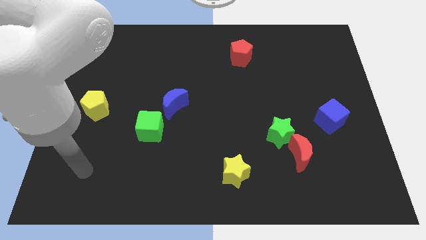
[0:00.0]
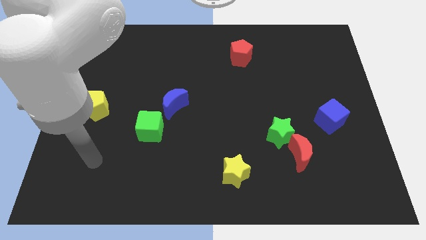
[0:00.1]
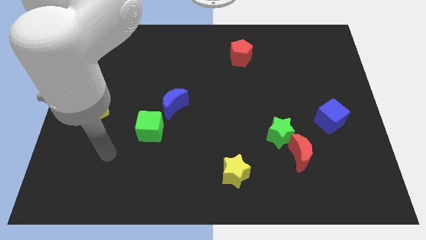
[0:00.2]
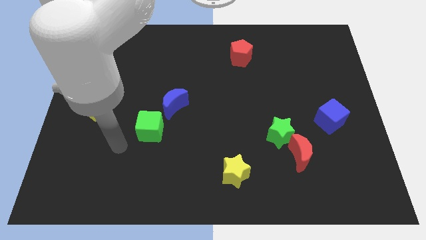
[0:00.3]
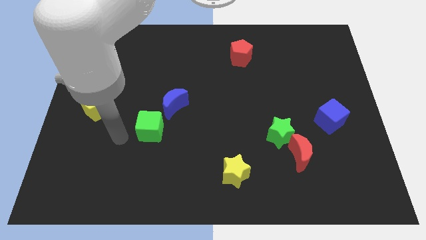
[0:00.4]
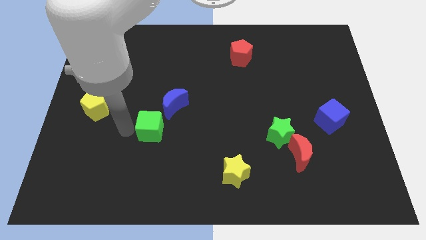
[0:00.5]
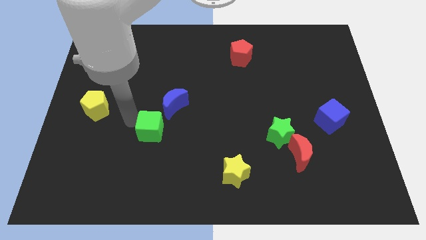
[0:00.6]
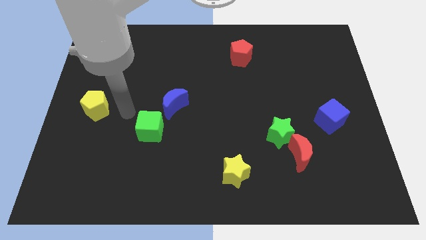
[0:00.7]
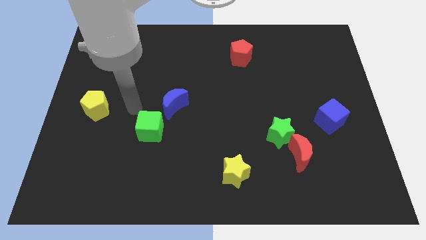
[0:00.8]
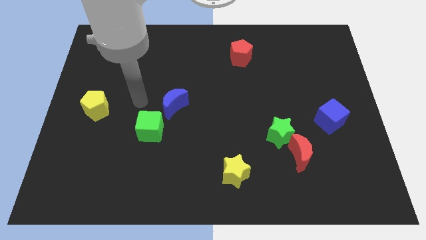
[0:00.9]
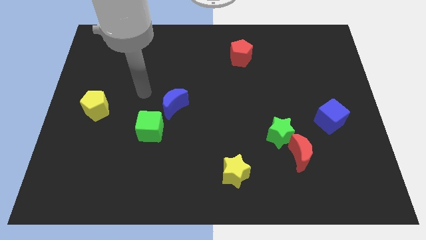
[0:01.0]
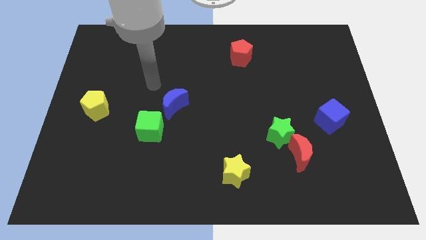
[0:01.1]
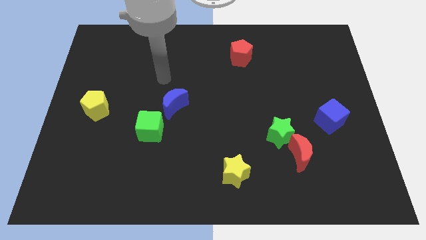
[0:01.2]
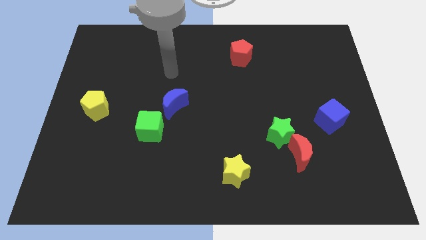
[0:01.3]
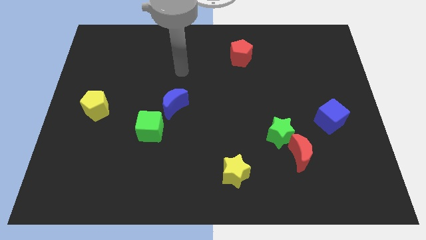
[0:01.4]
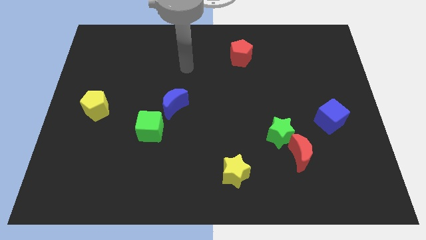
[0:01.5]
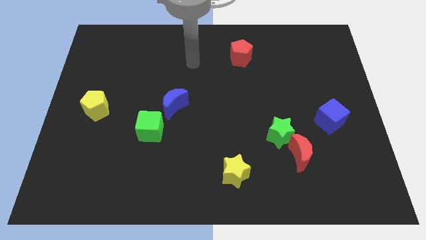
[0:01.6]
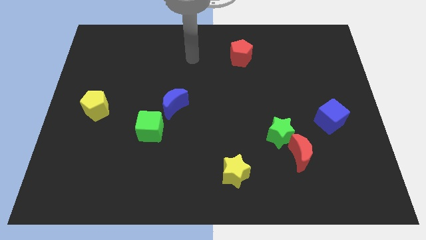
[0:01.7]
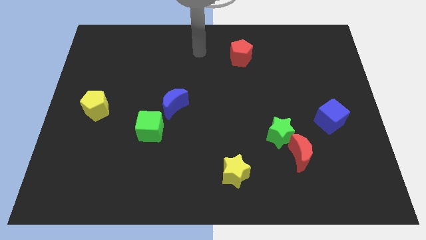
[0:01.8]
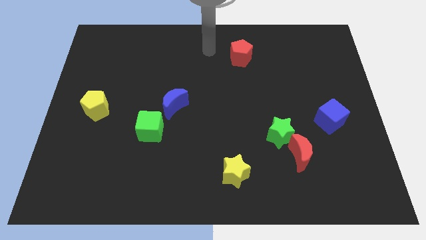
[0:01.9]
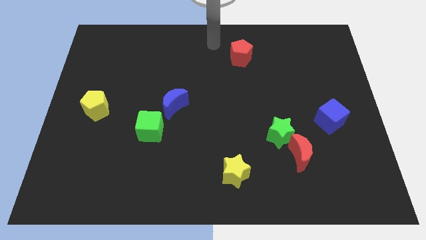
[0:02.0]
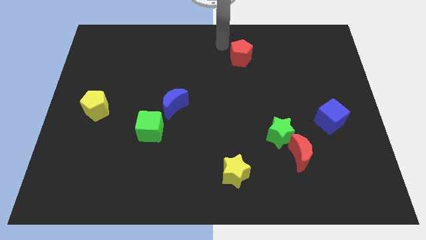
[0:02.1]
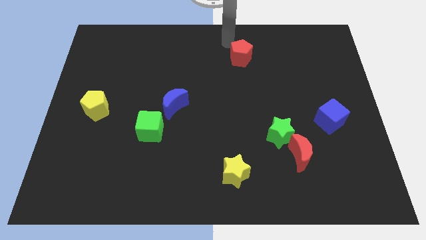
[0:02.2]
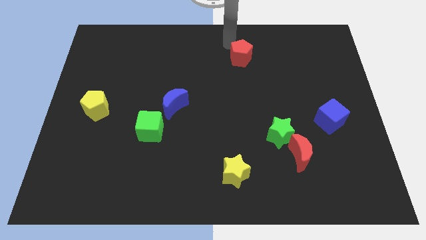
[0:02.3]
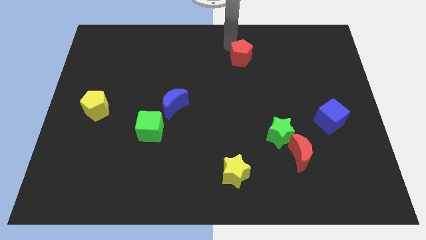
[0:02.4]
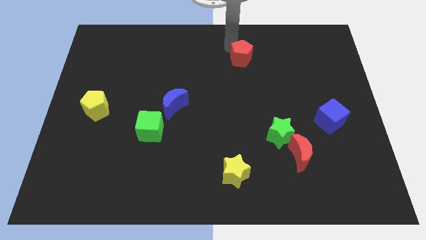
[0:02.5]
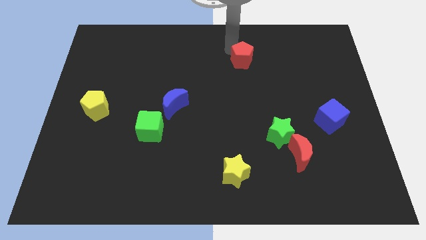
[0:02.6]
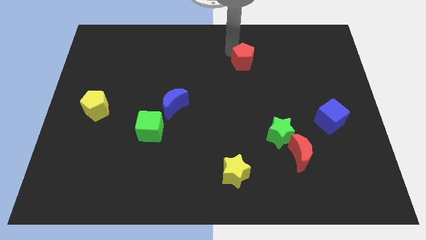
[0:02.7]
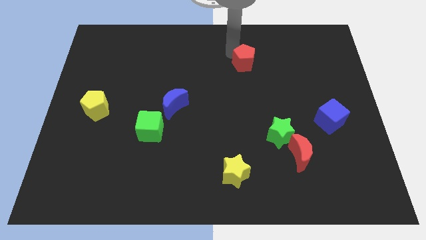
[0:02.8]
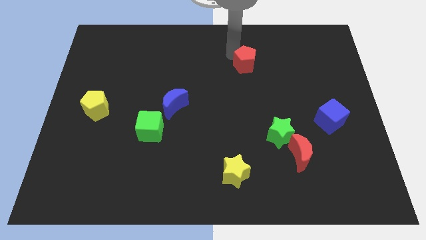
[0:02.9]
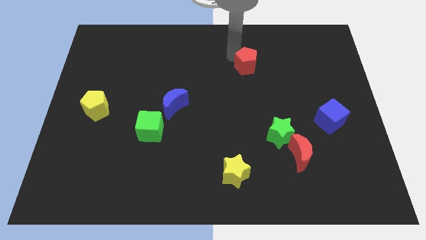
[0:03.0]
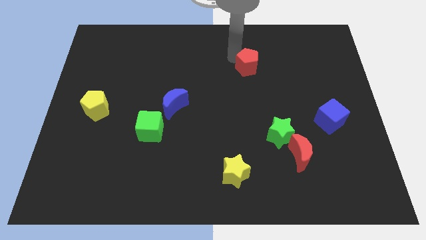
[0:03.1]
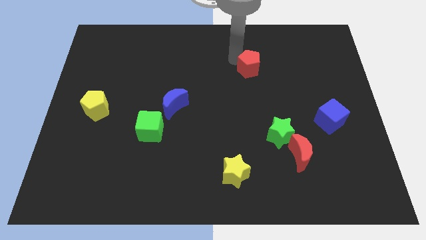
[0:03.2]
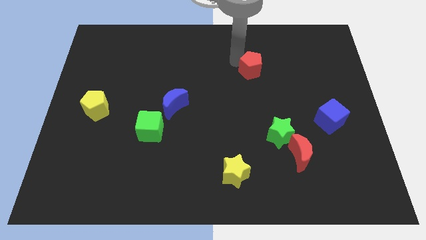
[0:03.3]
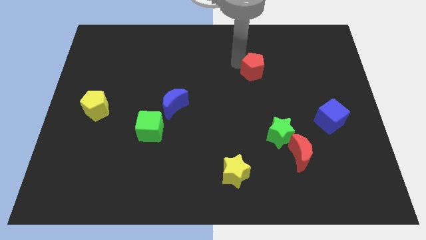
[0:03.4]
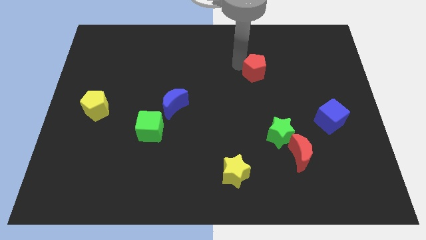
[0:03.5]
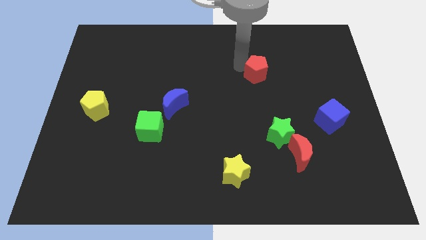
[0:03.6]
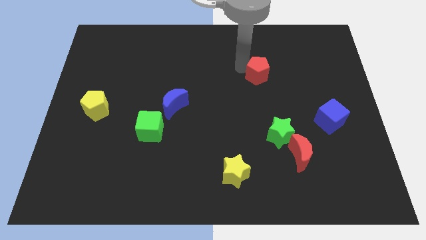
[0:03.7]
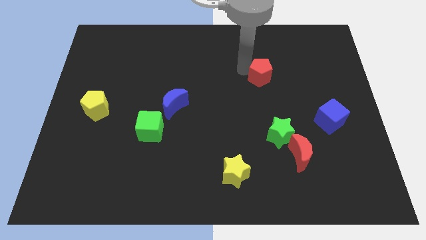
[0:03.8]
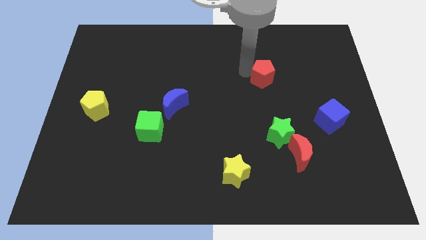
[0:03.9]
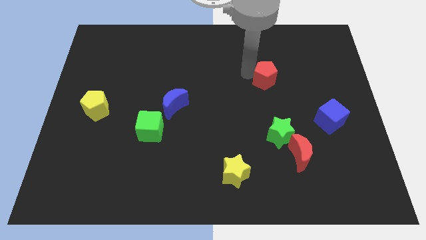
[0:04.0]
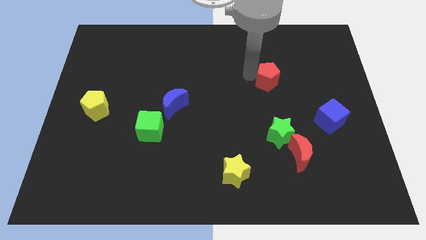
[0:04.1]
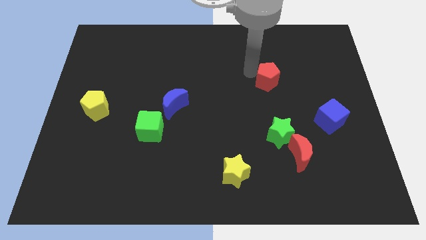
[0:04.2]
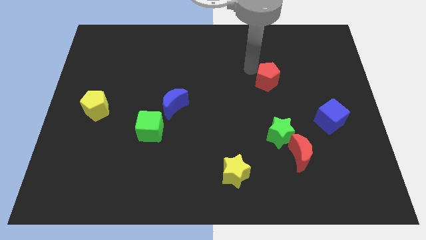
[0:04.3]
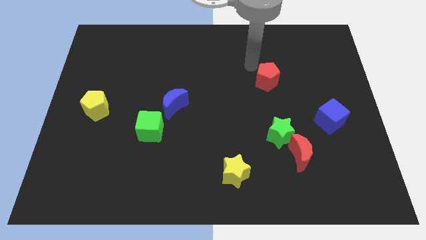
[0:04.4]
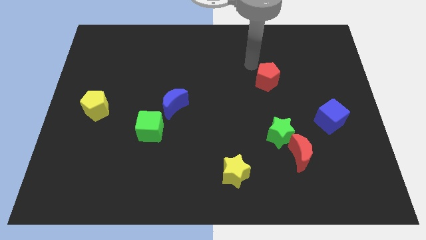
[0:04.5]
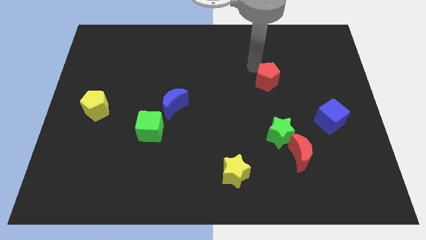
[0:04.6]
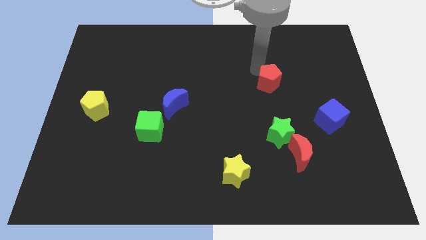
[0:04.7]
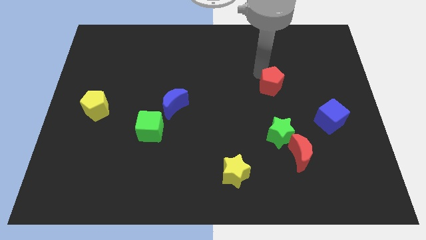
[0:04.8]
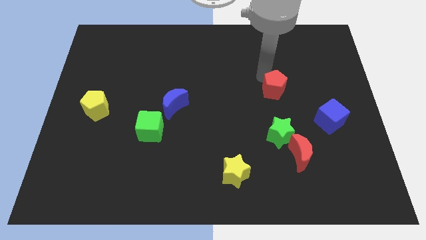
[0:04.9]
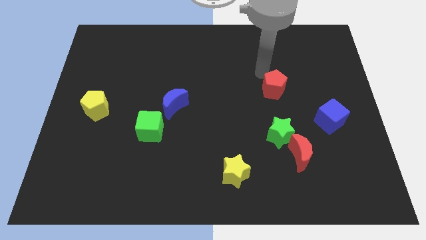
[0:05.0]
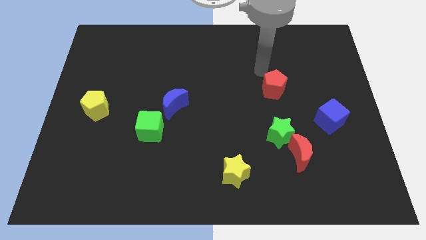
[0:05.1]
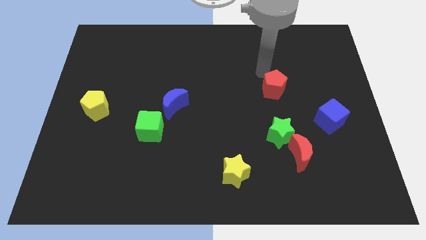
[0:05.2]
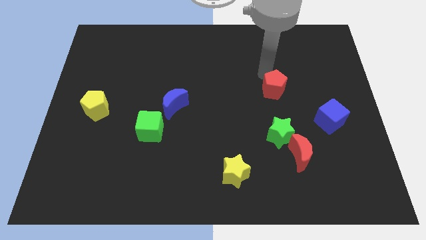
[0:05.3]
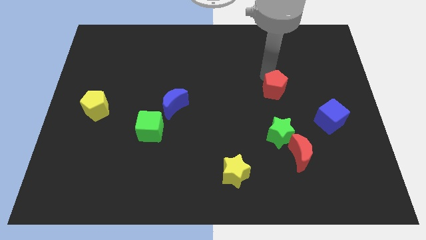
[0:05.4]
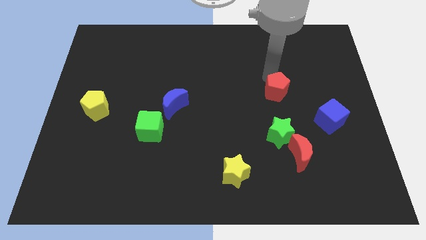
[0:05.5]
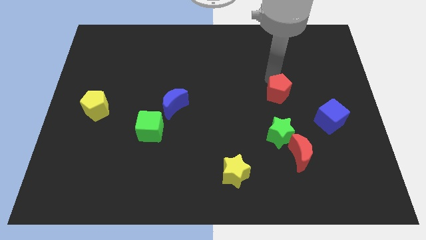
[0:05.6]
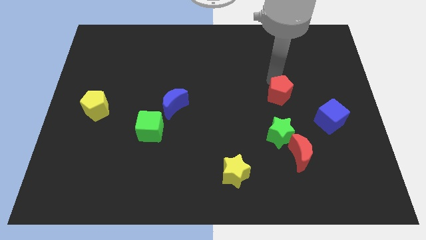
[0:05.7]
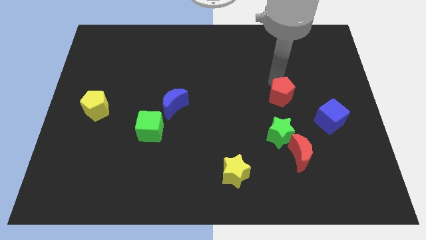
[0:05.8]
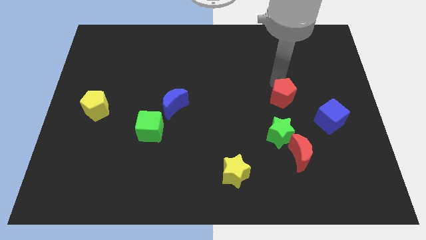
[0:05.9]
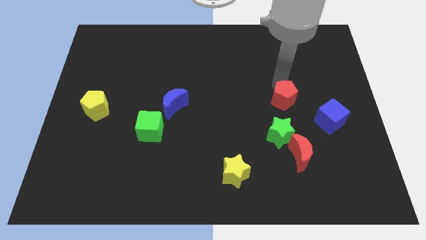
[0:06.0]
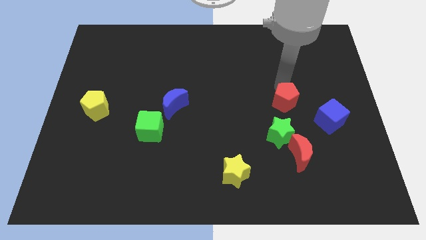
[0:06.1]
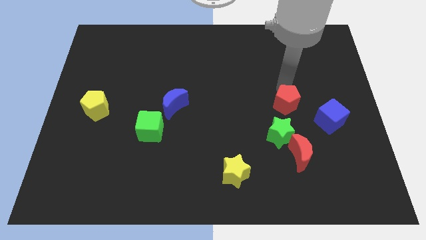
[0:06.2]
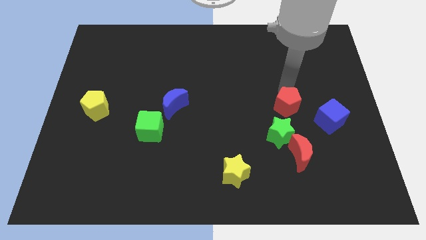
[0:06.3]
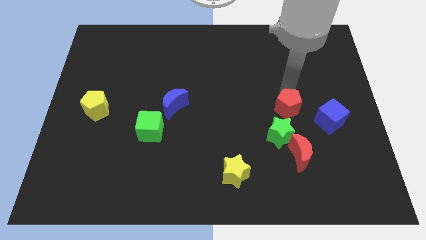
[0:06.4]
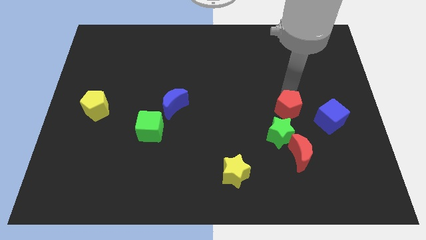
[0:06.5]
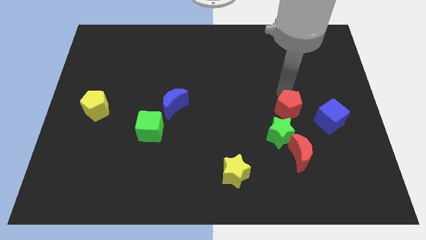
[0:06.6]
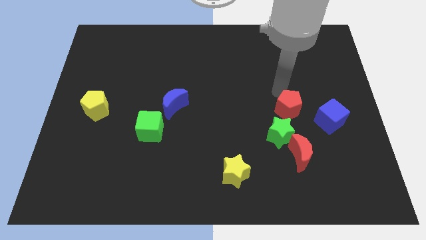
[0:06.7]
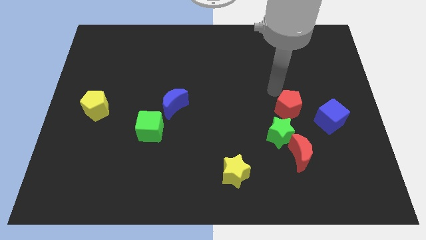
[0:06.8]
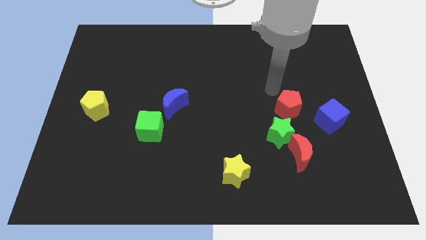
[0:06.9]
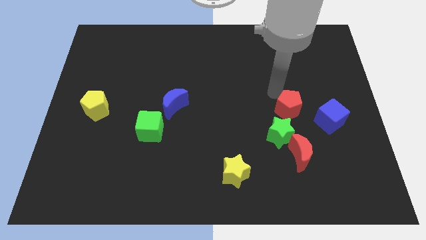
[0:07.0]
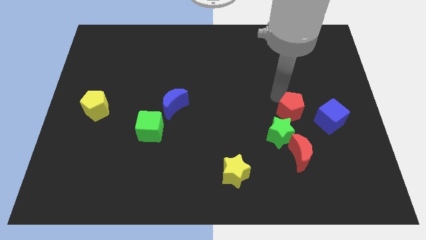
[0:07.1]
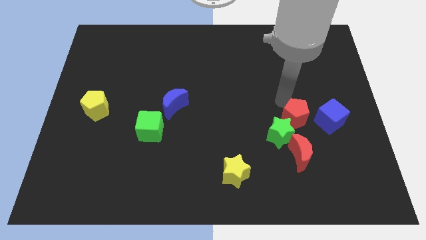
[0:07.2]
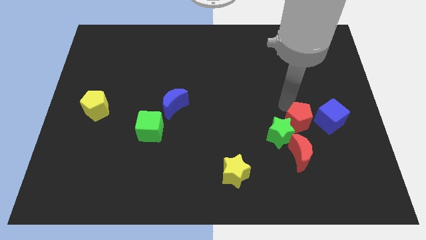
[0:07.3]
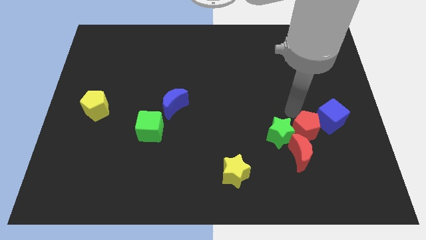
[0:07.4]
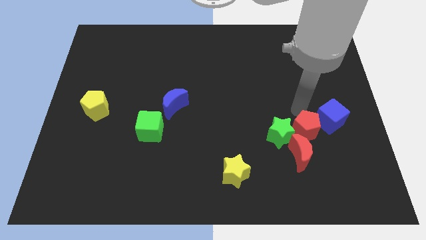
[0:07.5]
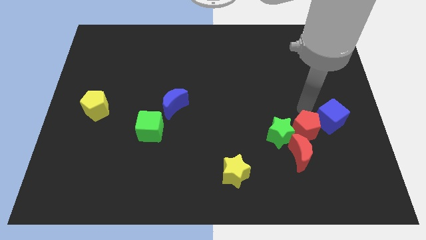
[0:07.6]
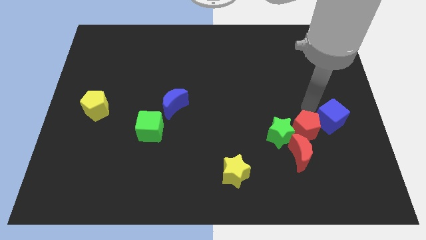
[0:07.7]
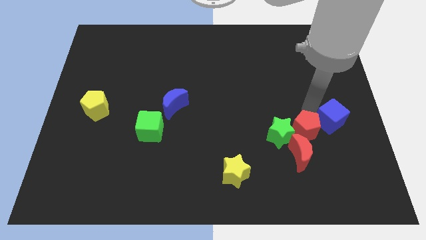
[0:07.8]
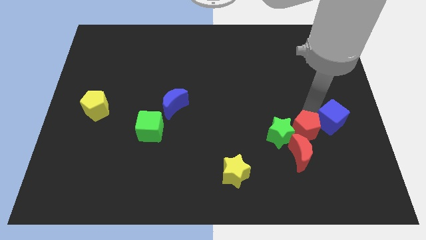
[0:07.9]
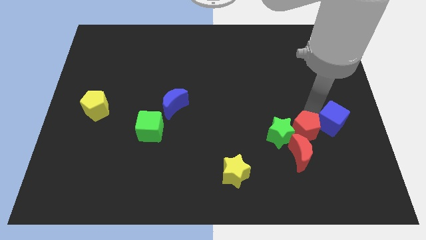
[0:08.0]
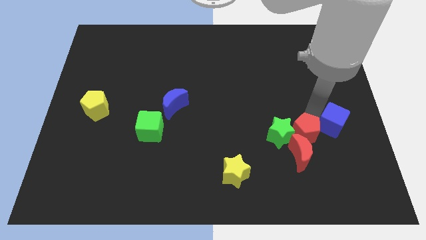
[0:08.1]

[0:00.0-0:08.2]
push the red pentagon towards the red moon
